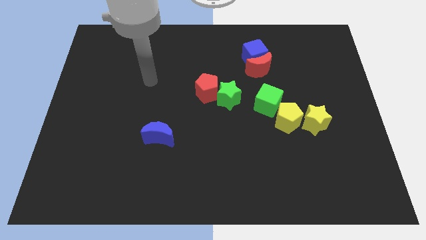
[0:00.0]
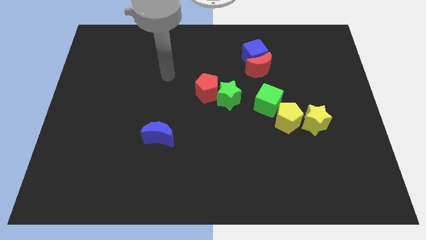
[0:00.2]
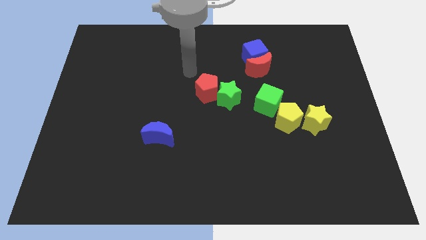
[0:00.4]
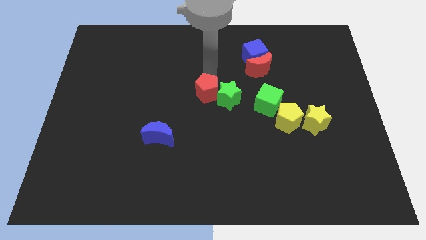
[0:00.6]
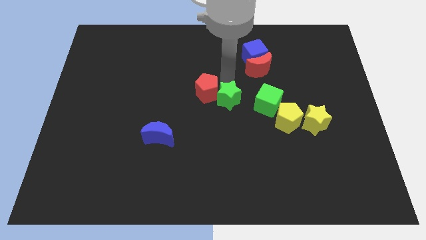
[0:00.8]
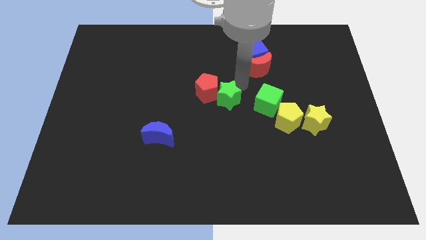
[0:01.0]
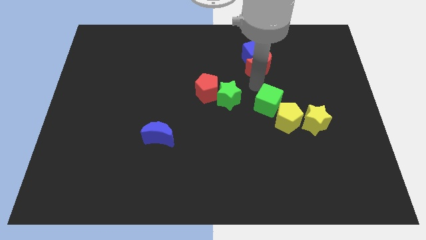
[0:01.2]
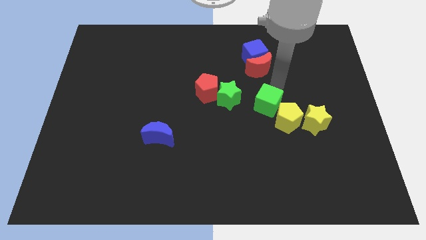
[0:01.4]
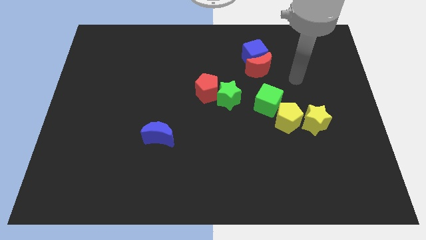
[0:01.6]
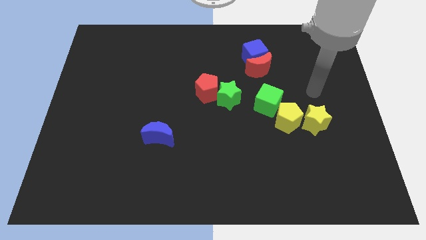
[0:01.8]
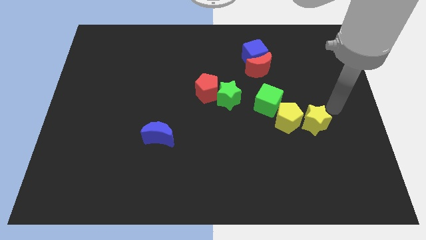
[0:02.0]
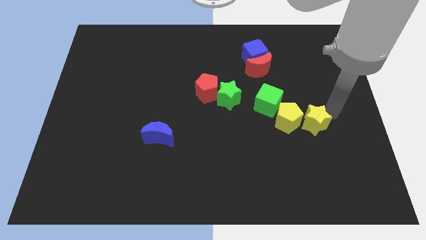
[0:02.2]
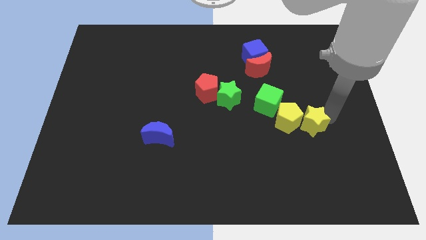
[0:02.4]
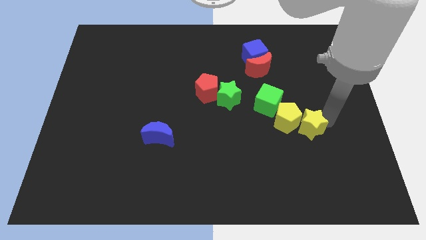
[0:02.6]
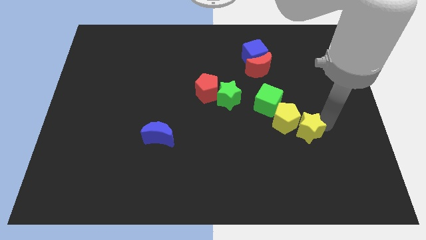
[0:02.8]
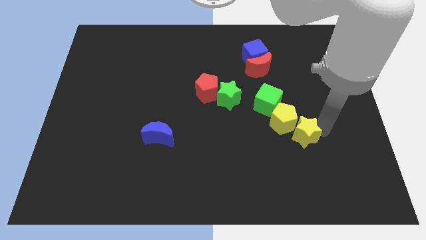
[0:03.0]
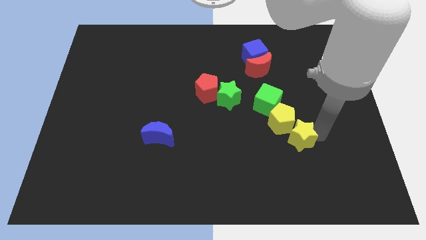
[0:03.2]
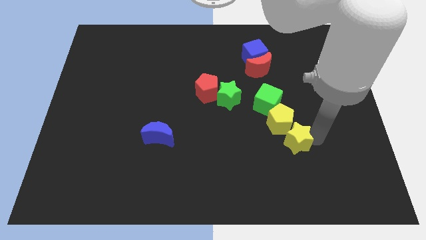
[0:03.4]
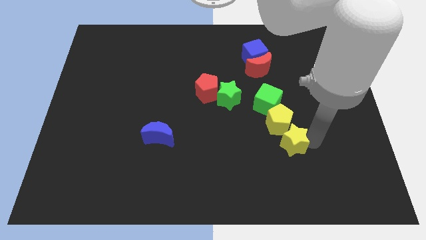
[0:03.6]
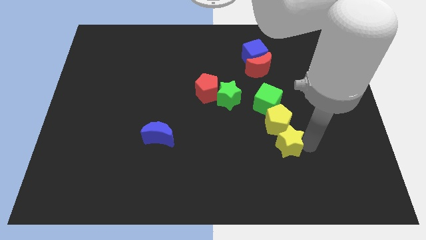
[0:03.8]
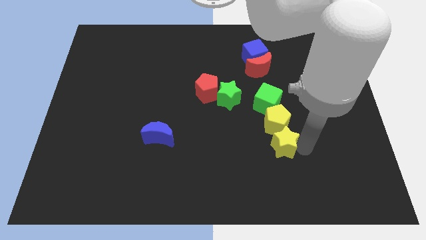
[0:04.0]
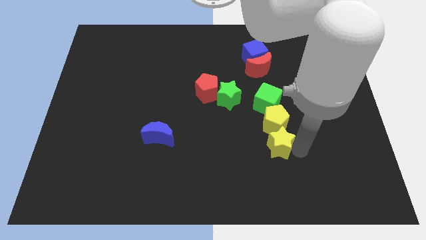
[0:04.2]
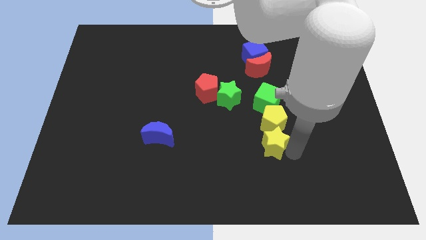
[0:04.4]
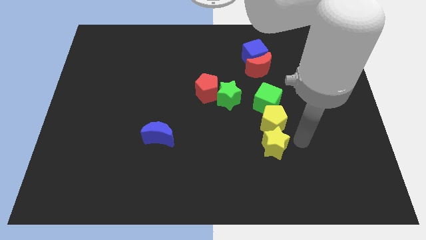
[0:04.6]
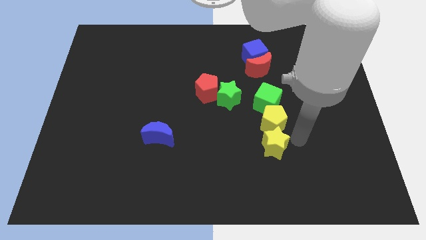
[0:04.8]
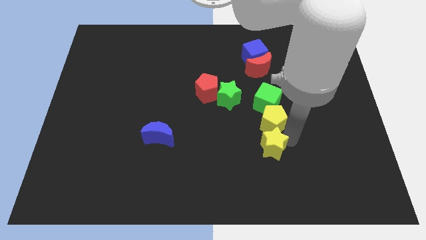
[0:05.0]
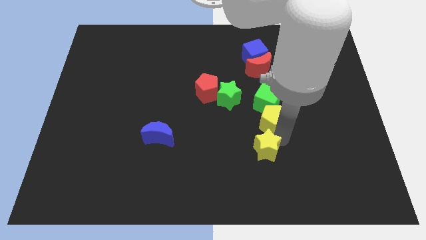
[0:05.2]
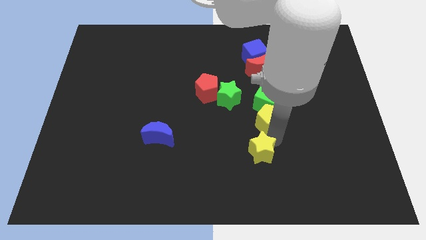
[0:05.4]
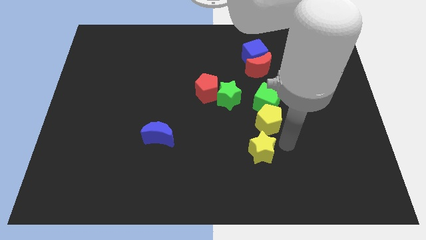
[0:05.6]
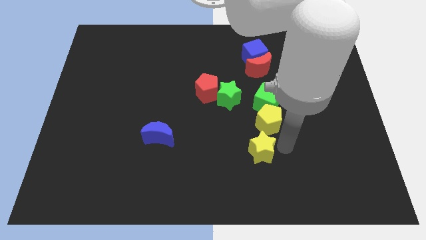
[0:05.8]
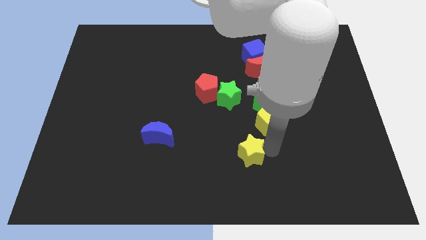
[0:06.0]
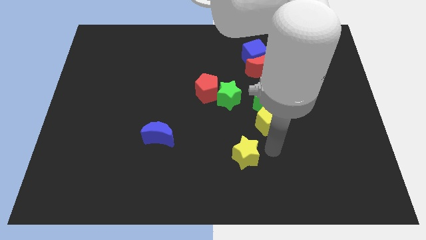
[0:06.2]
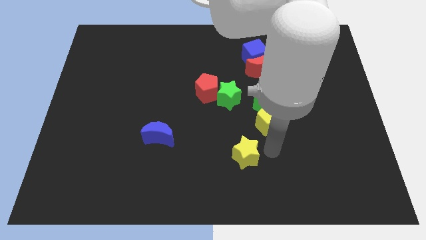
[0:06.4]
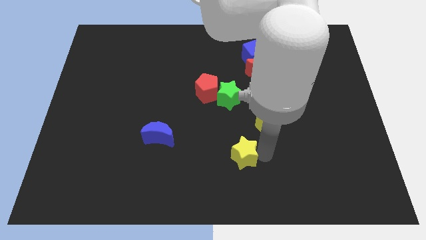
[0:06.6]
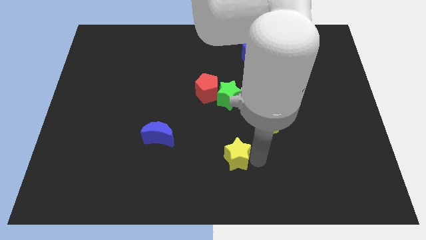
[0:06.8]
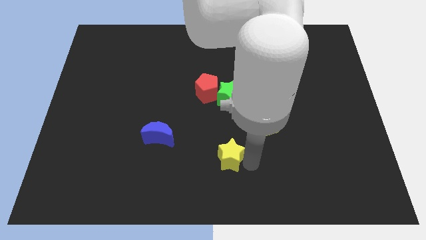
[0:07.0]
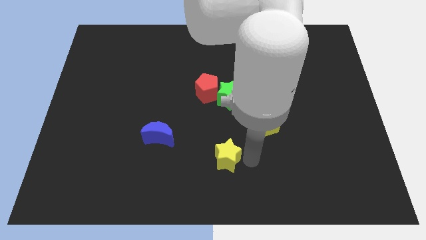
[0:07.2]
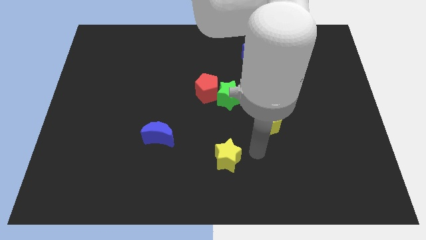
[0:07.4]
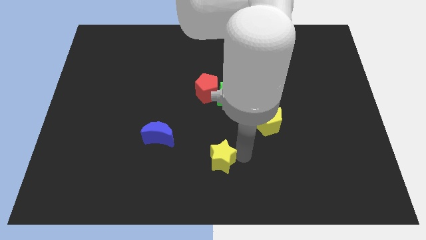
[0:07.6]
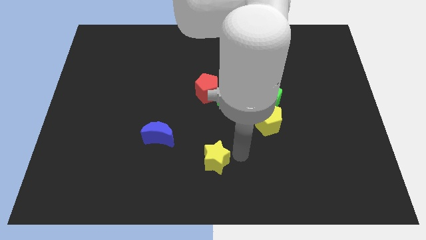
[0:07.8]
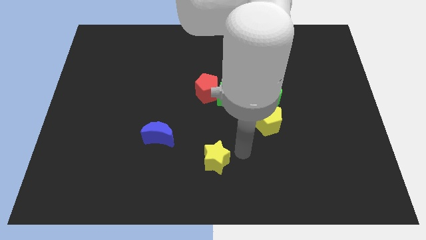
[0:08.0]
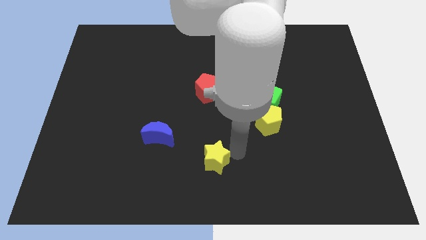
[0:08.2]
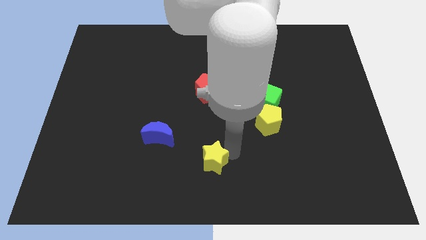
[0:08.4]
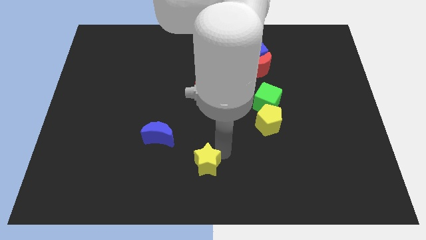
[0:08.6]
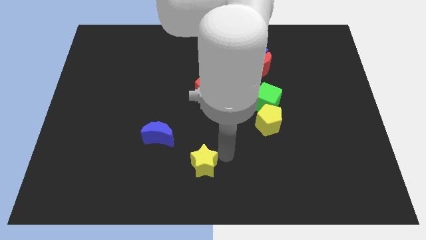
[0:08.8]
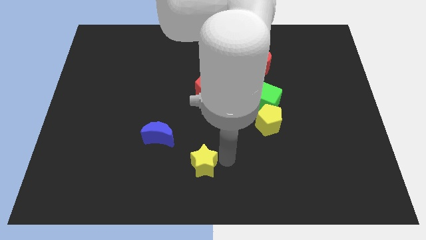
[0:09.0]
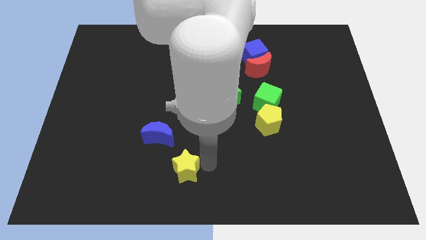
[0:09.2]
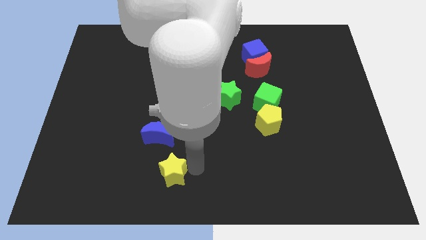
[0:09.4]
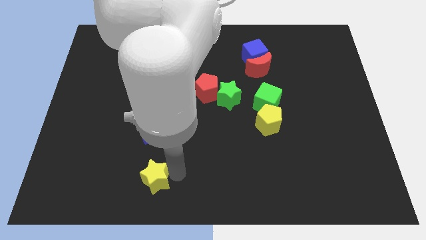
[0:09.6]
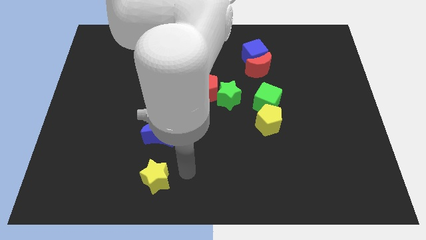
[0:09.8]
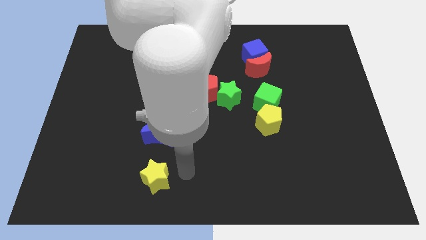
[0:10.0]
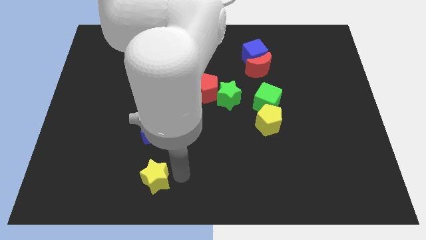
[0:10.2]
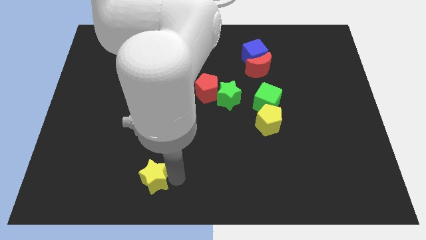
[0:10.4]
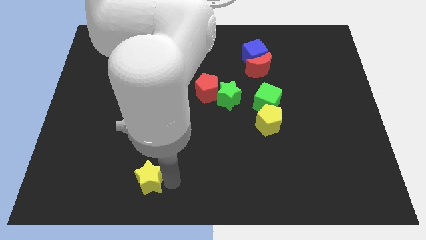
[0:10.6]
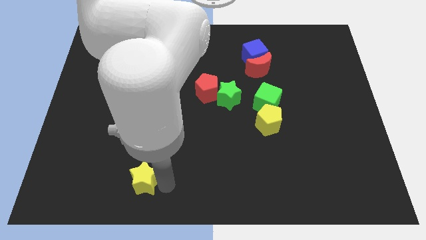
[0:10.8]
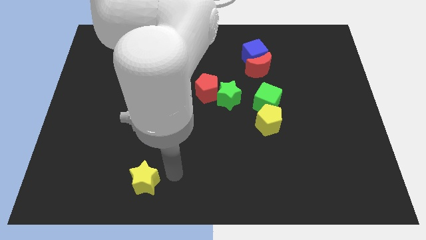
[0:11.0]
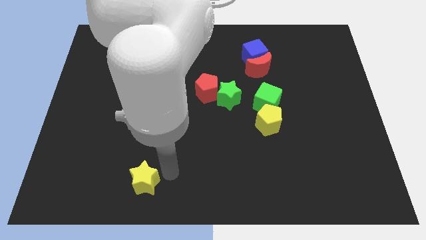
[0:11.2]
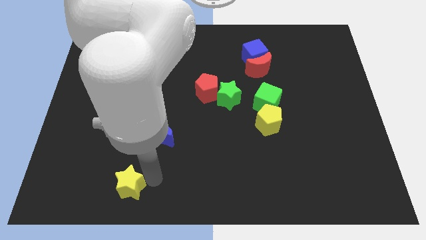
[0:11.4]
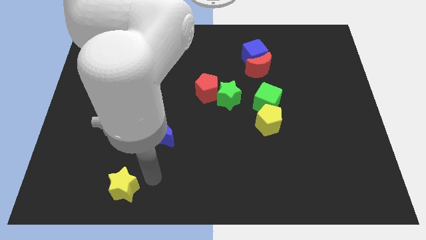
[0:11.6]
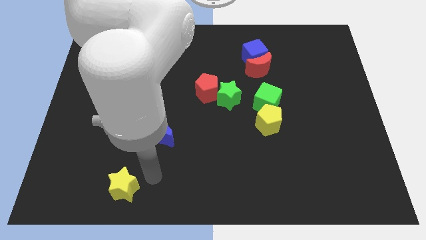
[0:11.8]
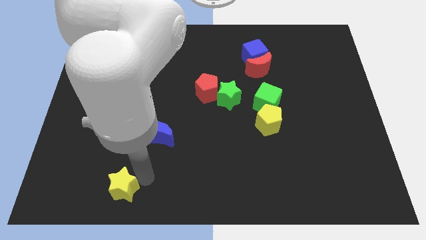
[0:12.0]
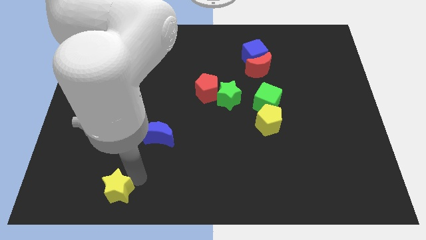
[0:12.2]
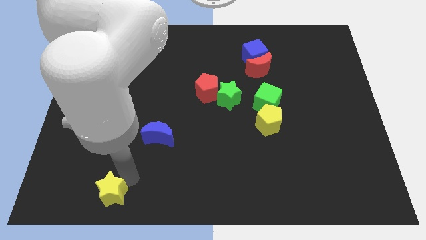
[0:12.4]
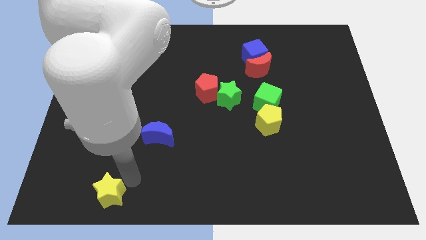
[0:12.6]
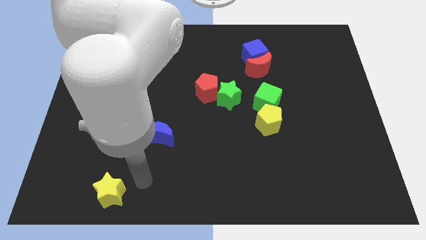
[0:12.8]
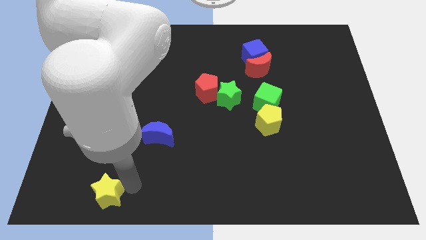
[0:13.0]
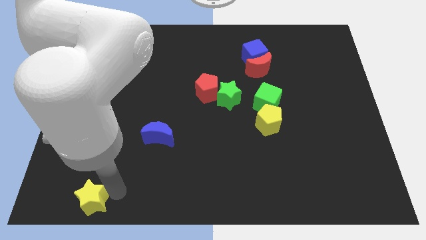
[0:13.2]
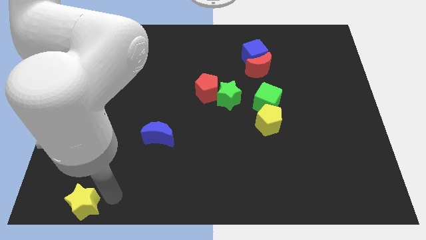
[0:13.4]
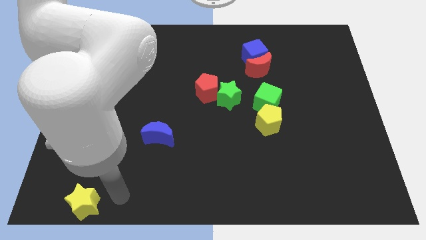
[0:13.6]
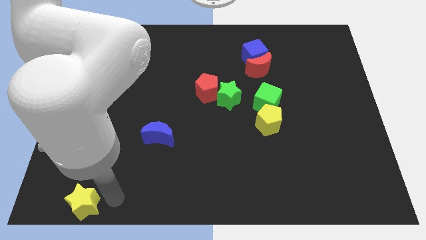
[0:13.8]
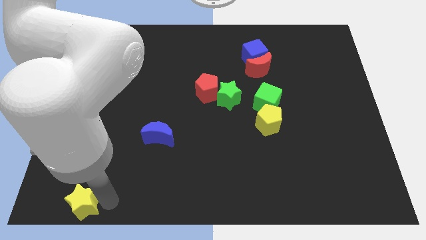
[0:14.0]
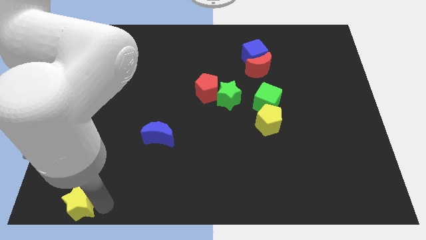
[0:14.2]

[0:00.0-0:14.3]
push the yellow star to the bottom left
